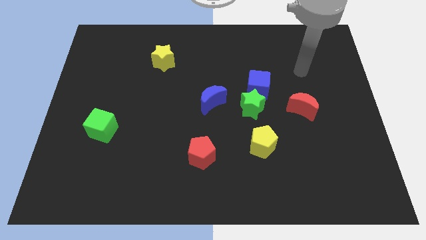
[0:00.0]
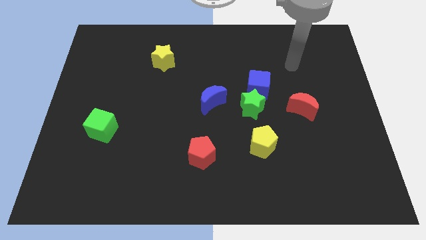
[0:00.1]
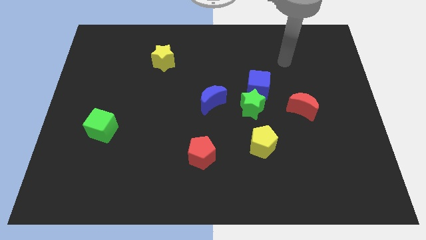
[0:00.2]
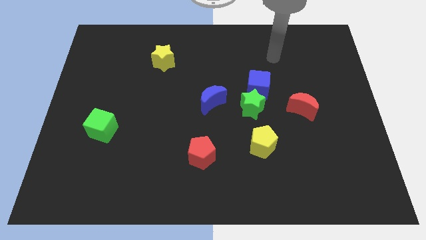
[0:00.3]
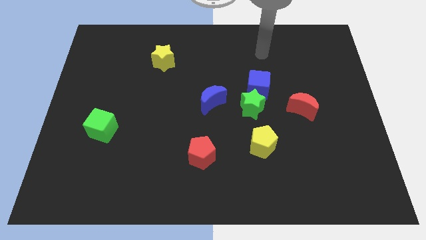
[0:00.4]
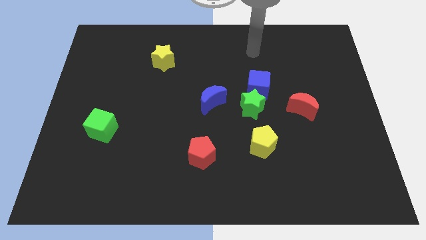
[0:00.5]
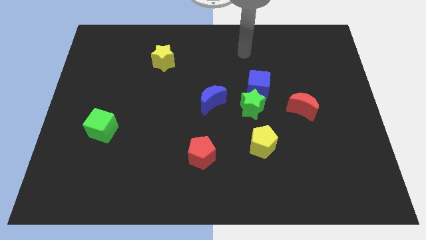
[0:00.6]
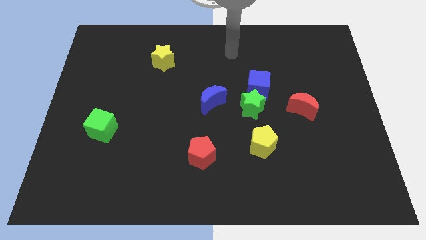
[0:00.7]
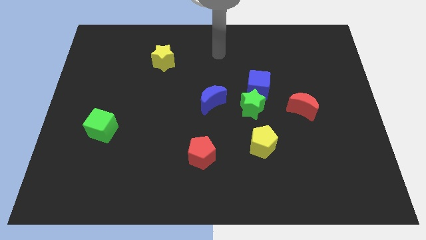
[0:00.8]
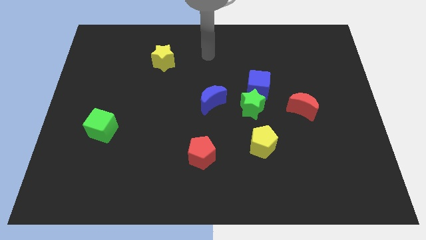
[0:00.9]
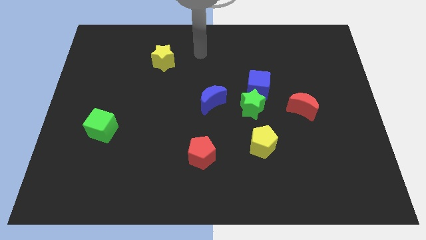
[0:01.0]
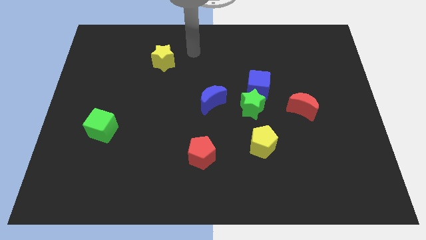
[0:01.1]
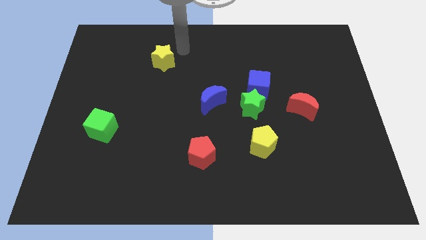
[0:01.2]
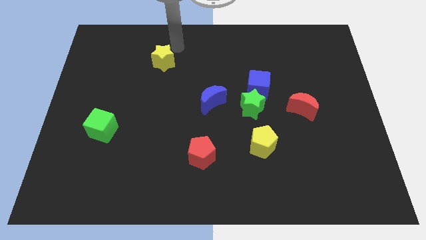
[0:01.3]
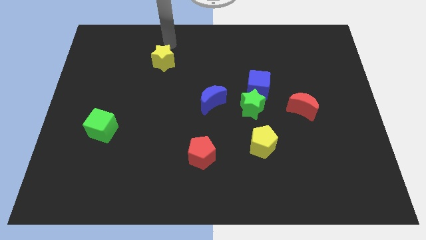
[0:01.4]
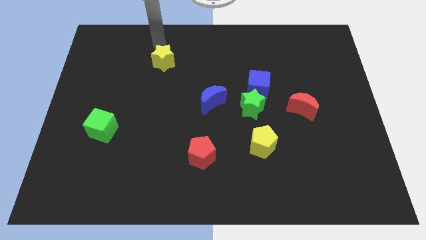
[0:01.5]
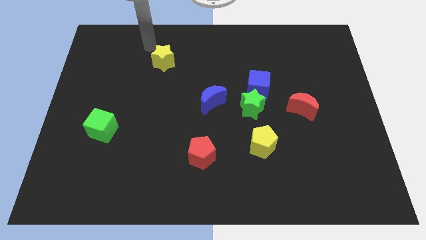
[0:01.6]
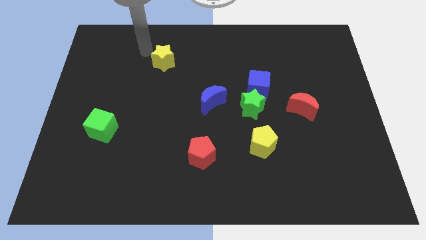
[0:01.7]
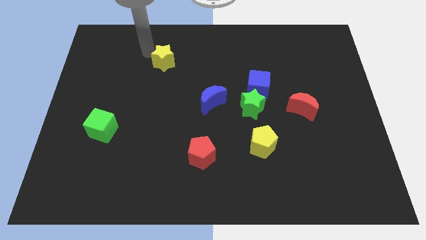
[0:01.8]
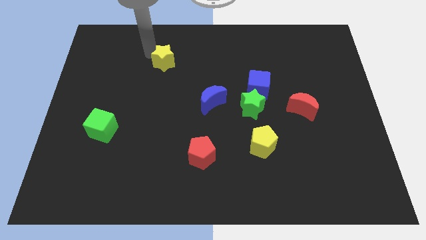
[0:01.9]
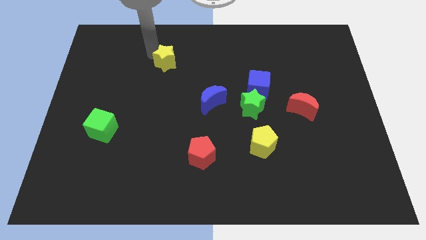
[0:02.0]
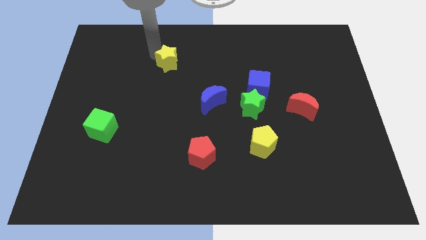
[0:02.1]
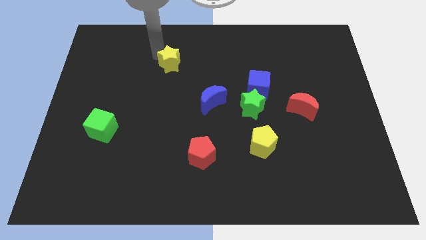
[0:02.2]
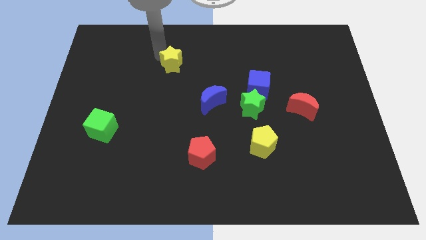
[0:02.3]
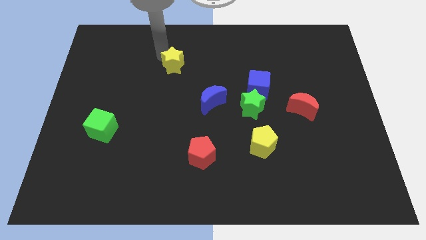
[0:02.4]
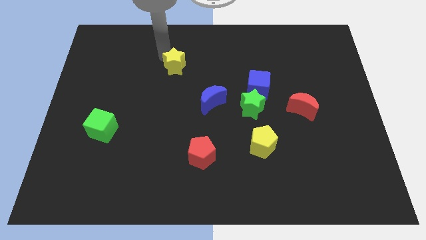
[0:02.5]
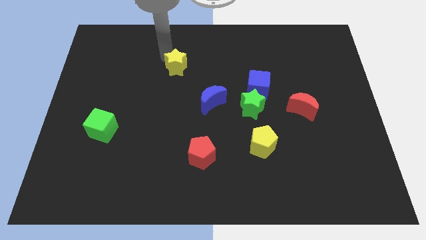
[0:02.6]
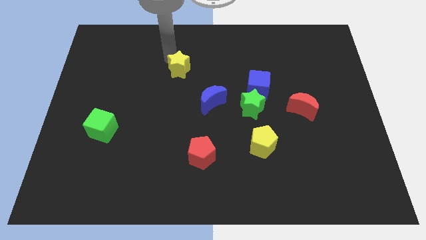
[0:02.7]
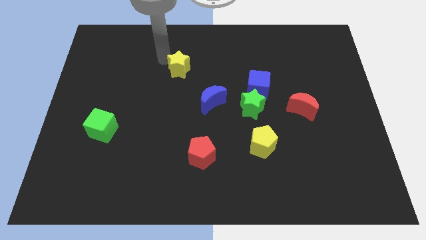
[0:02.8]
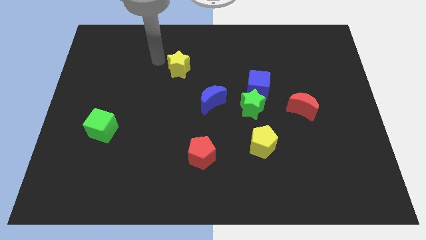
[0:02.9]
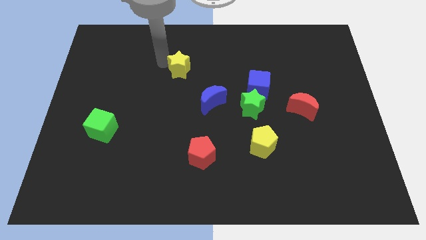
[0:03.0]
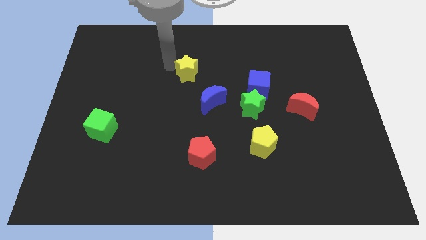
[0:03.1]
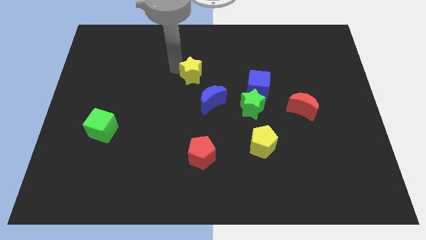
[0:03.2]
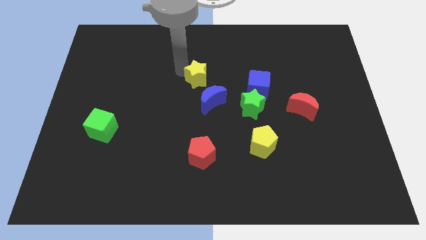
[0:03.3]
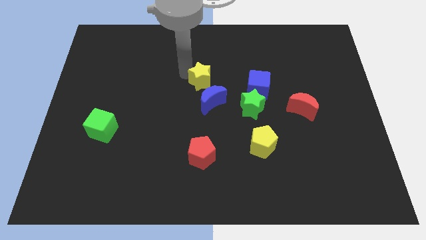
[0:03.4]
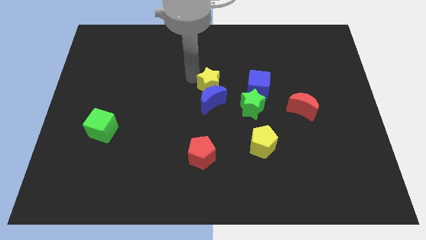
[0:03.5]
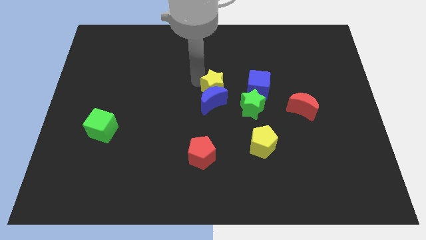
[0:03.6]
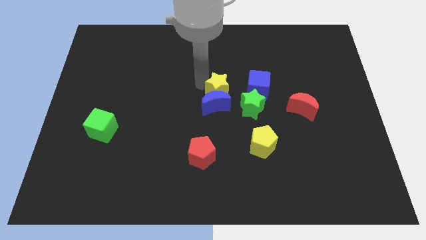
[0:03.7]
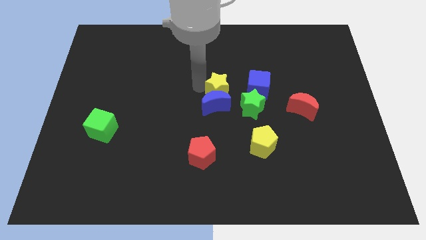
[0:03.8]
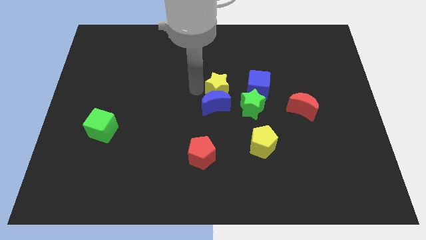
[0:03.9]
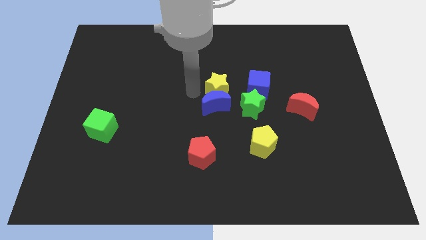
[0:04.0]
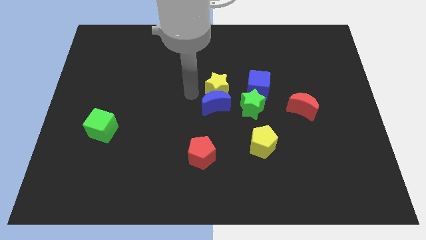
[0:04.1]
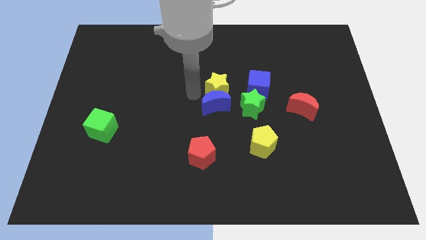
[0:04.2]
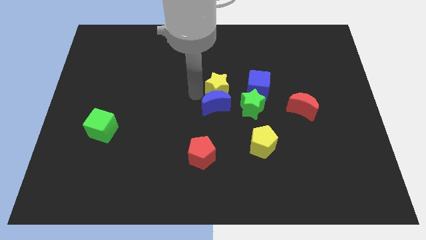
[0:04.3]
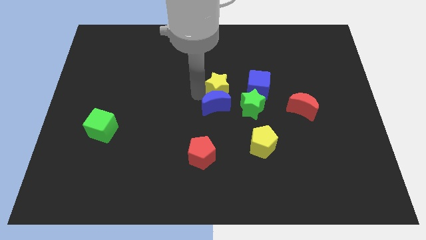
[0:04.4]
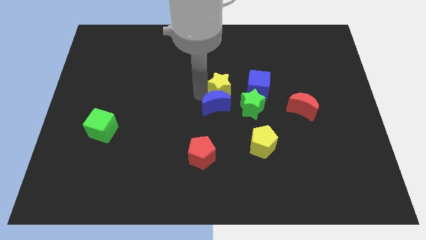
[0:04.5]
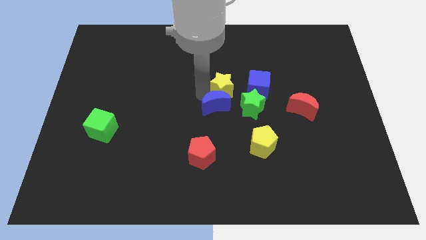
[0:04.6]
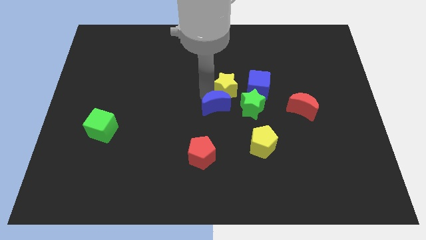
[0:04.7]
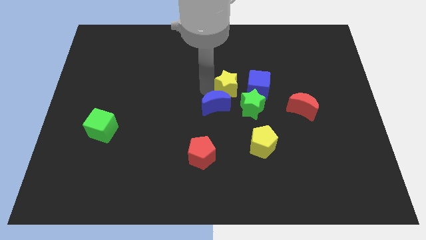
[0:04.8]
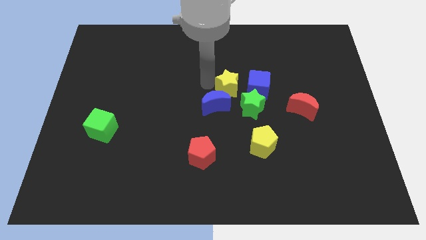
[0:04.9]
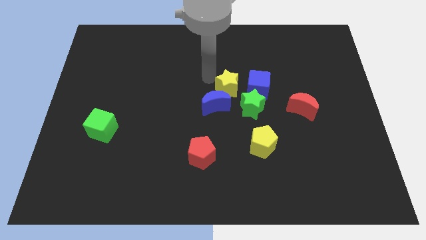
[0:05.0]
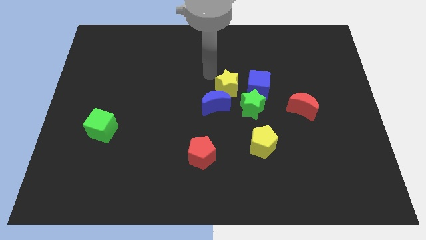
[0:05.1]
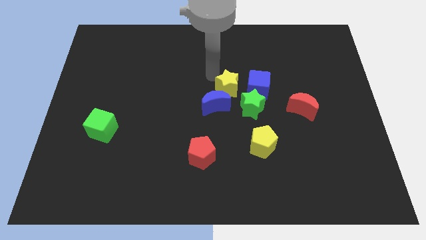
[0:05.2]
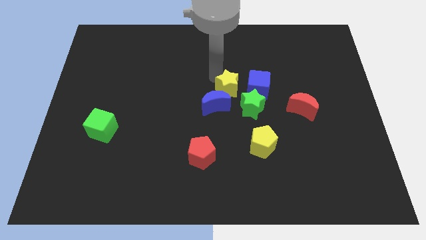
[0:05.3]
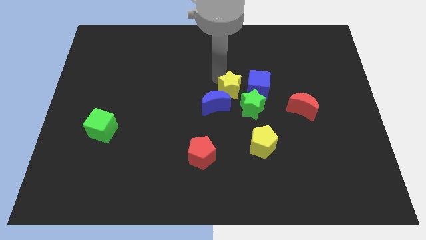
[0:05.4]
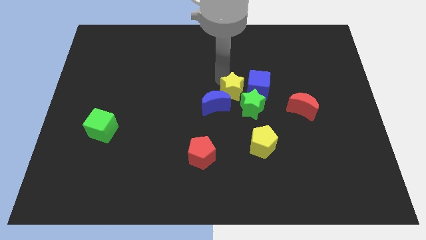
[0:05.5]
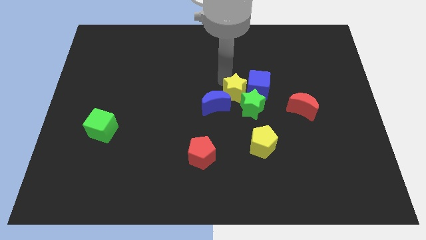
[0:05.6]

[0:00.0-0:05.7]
move the yellow star towards the green star

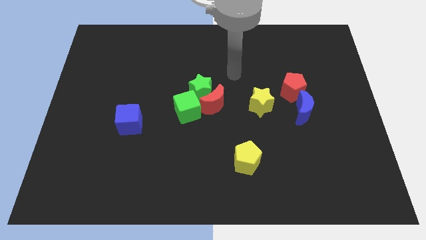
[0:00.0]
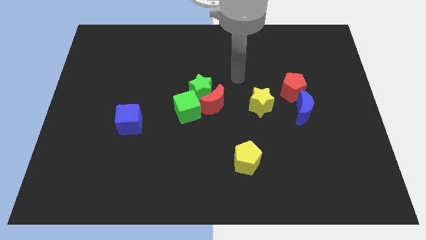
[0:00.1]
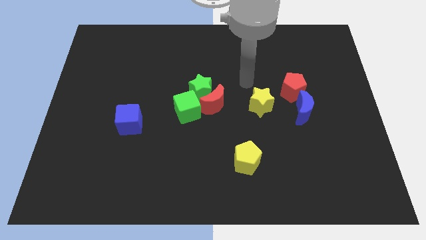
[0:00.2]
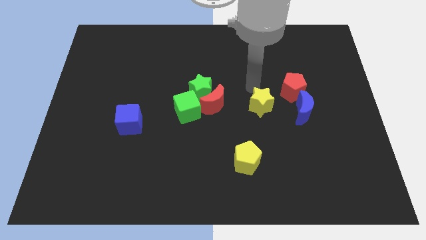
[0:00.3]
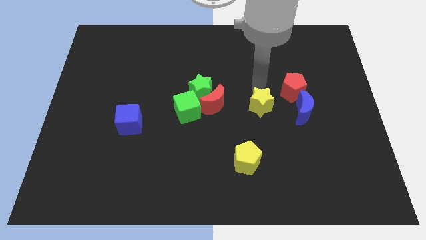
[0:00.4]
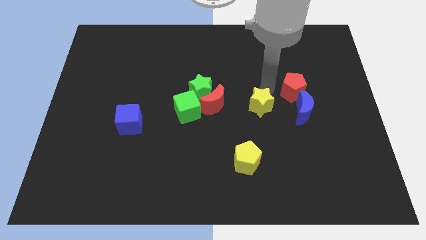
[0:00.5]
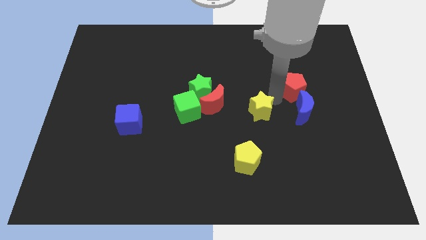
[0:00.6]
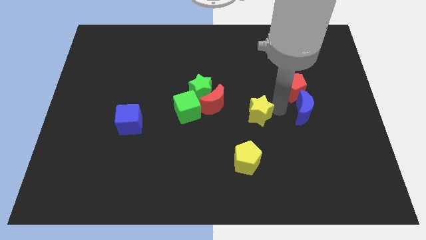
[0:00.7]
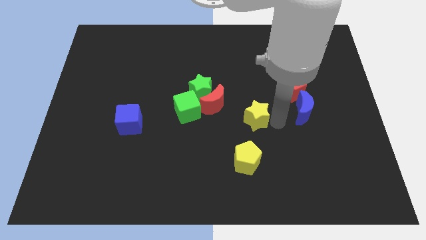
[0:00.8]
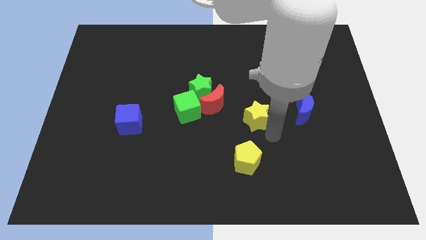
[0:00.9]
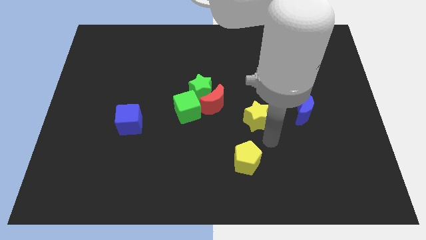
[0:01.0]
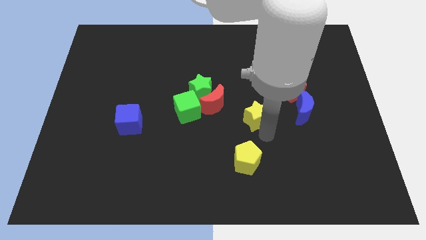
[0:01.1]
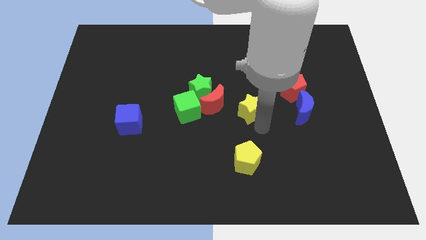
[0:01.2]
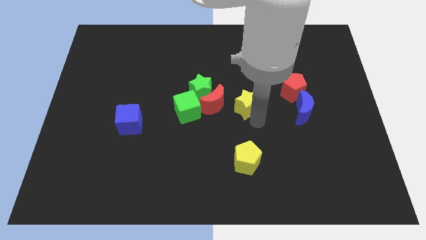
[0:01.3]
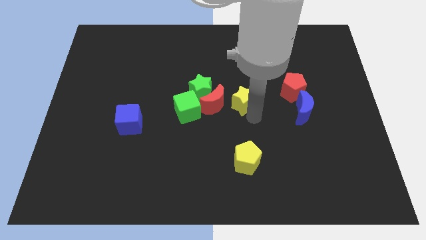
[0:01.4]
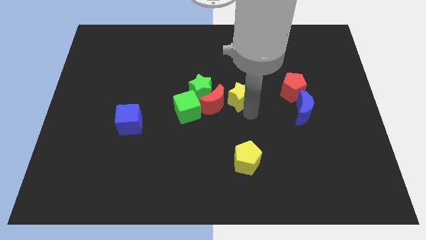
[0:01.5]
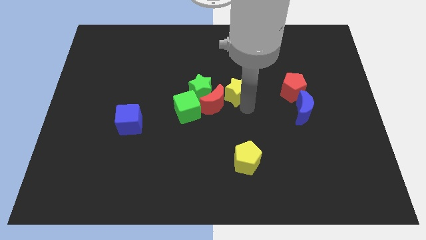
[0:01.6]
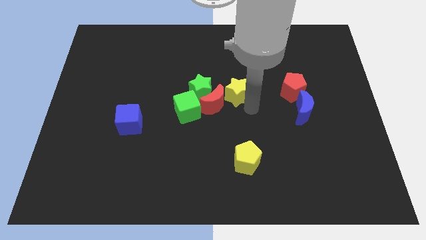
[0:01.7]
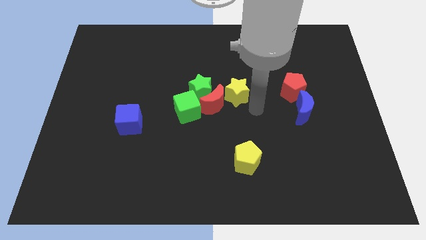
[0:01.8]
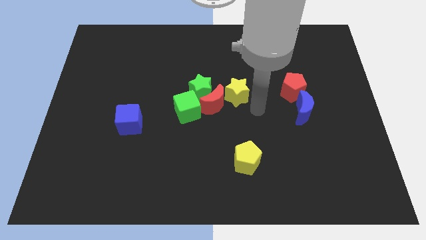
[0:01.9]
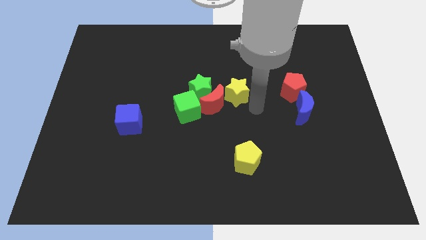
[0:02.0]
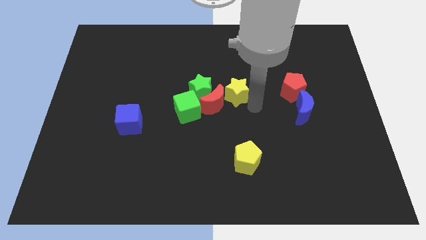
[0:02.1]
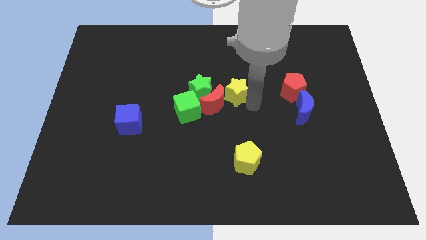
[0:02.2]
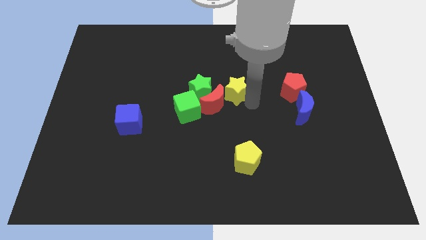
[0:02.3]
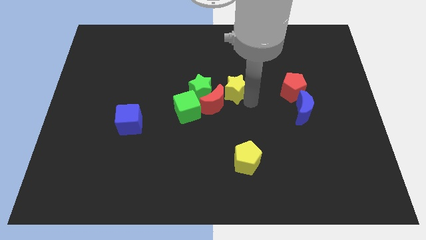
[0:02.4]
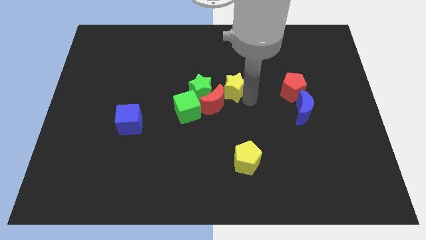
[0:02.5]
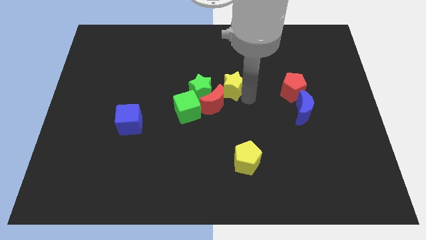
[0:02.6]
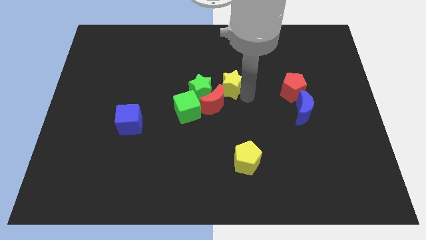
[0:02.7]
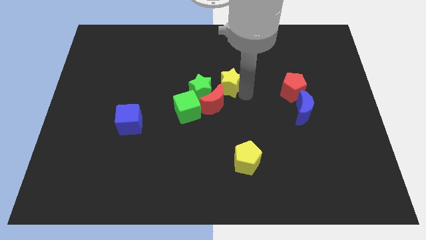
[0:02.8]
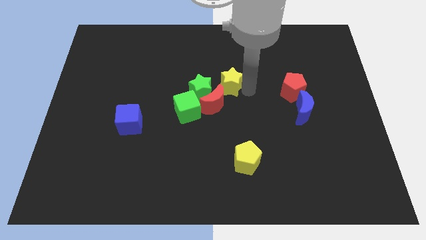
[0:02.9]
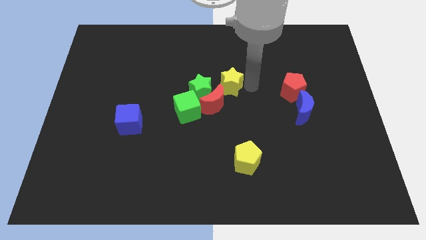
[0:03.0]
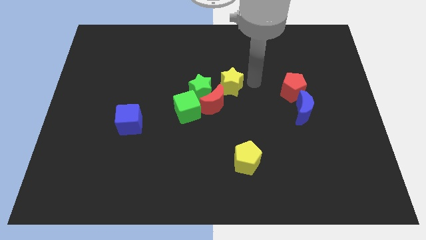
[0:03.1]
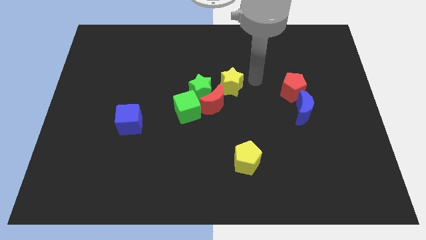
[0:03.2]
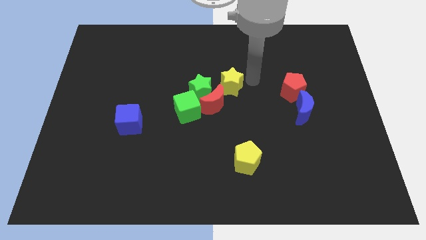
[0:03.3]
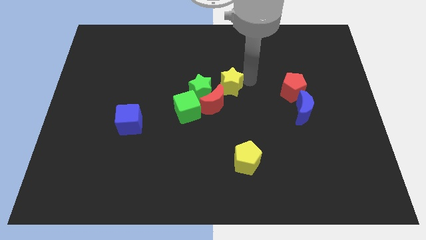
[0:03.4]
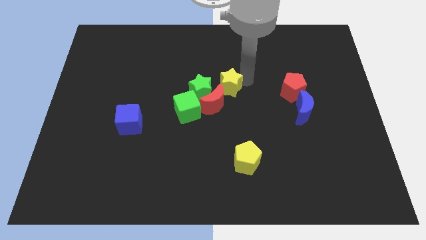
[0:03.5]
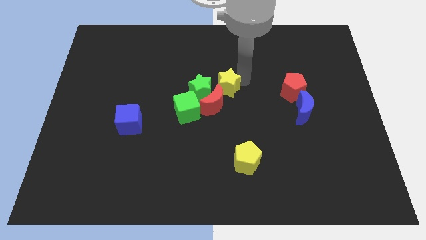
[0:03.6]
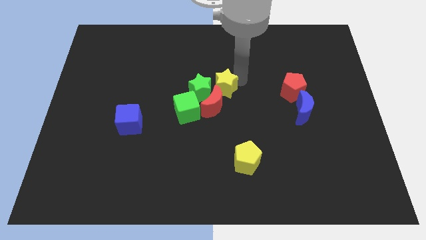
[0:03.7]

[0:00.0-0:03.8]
move the yellow star to the green star
